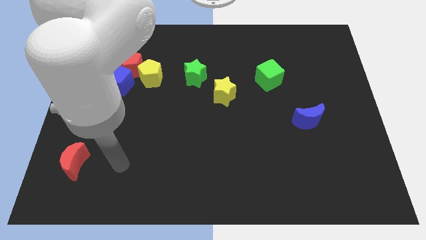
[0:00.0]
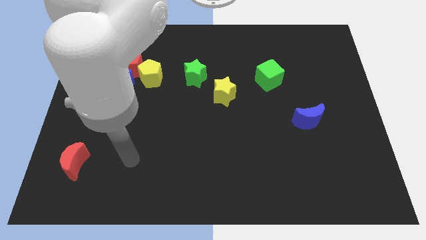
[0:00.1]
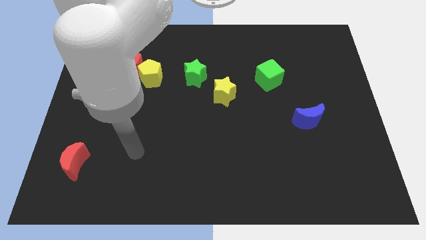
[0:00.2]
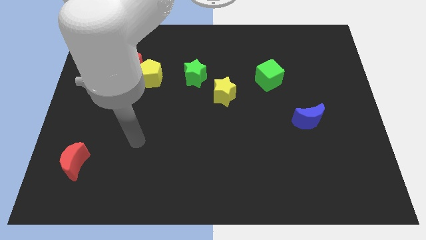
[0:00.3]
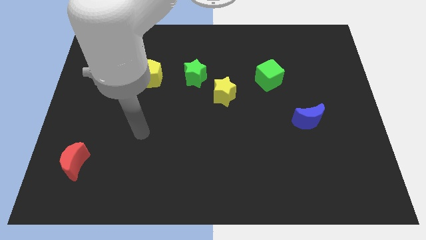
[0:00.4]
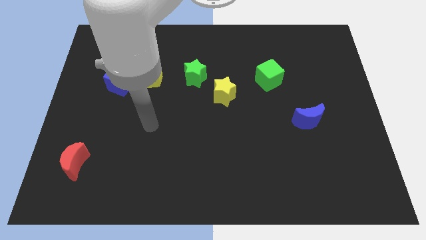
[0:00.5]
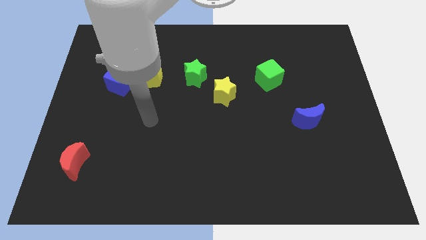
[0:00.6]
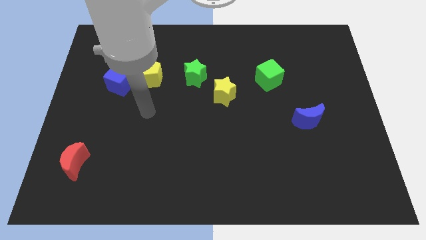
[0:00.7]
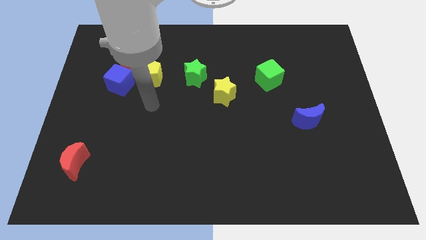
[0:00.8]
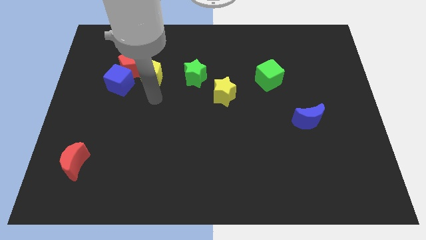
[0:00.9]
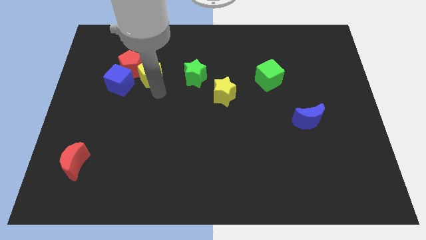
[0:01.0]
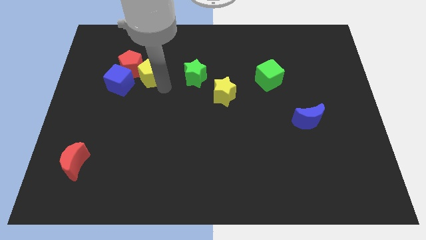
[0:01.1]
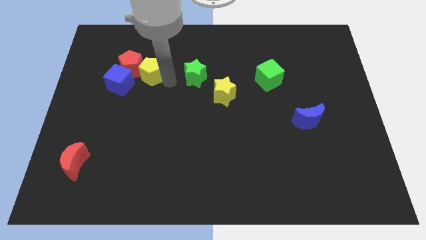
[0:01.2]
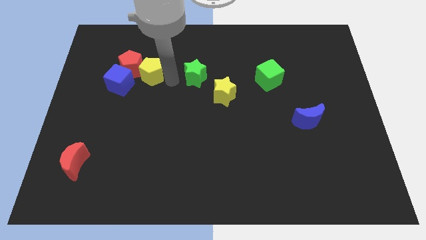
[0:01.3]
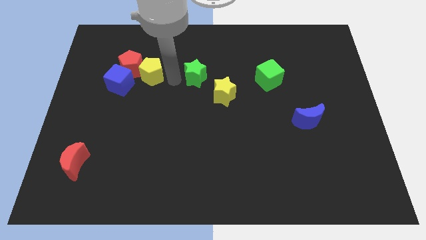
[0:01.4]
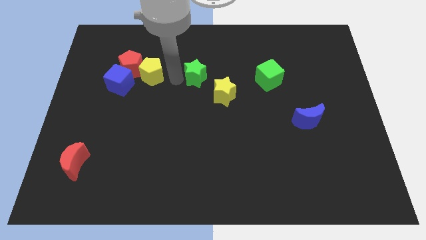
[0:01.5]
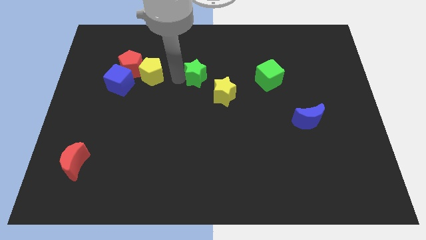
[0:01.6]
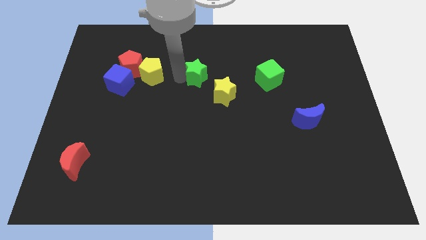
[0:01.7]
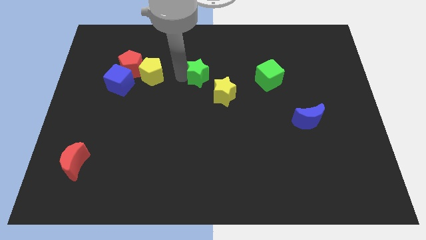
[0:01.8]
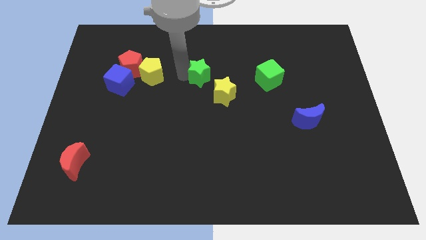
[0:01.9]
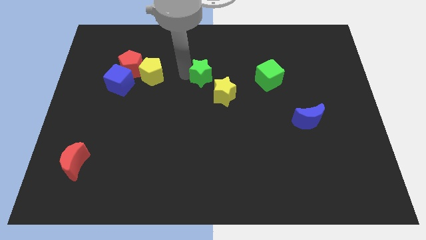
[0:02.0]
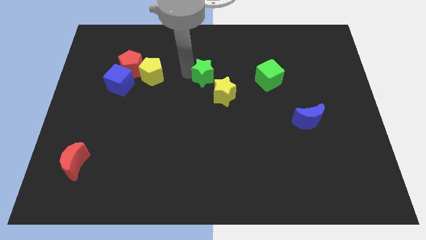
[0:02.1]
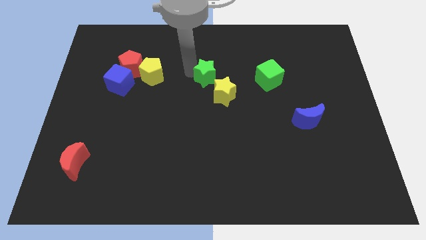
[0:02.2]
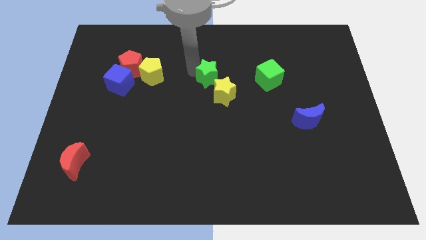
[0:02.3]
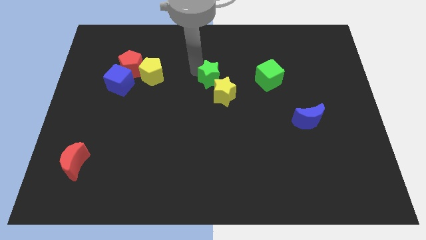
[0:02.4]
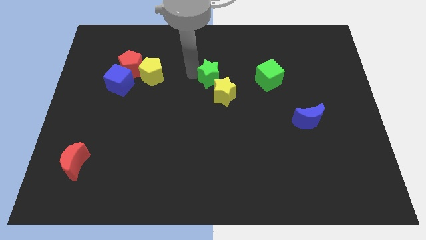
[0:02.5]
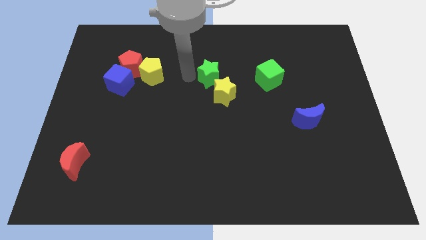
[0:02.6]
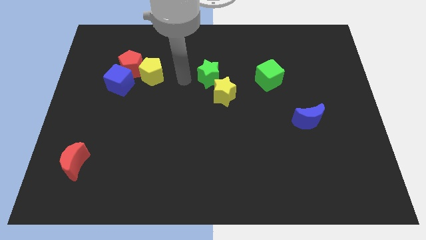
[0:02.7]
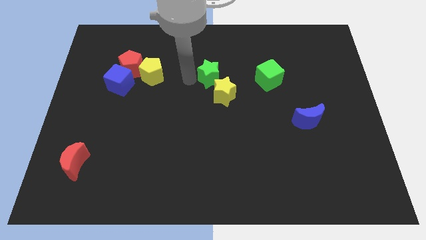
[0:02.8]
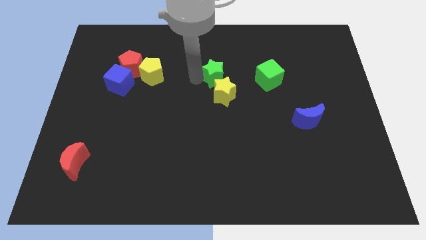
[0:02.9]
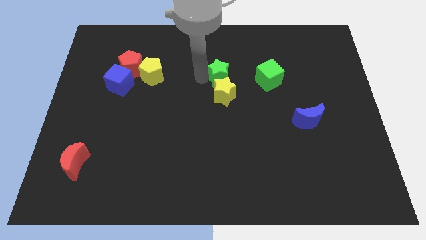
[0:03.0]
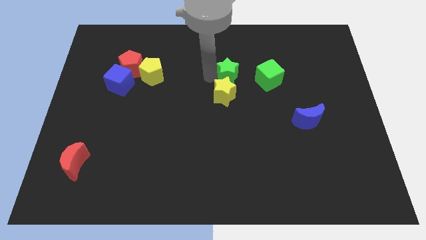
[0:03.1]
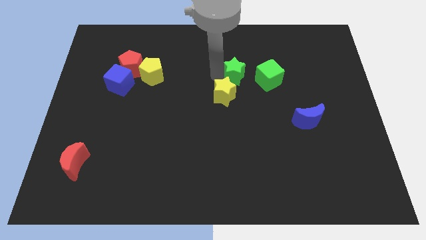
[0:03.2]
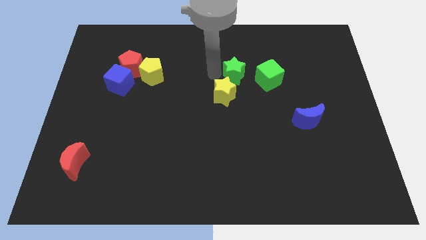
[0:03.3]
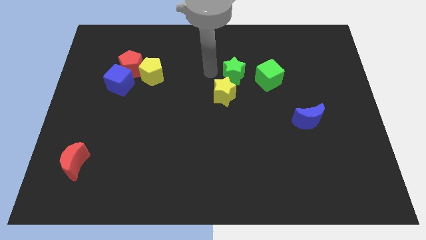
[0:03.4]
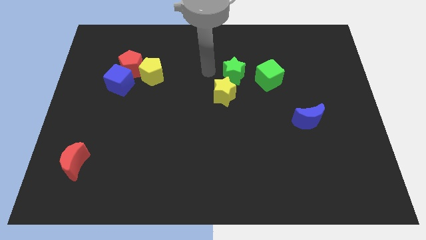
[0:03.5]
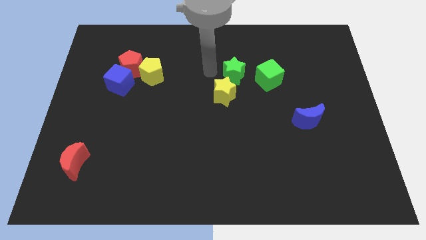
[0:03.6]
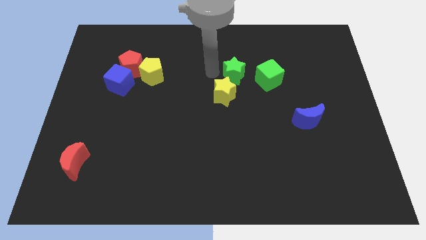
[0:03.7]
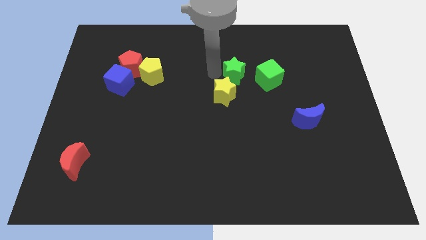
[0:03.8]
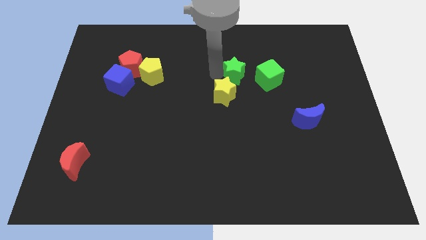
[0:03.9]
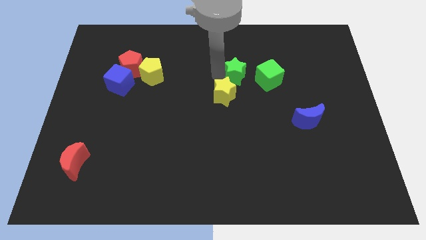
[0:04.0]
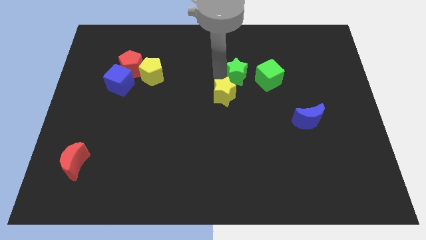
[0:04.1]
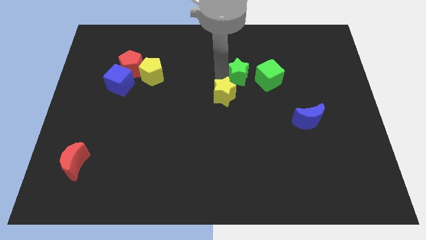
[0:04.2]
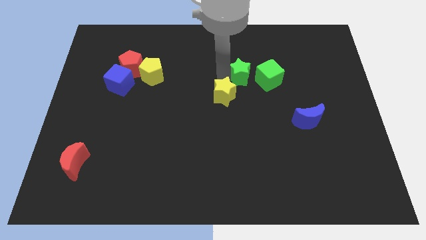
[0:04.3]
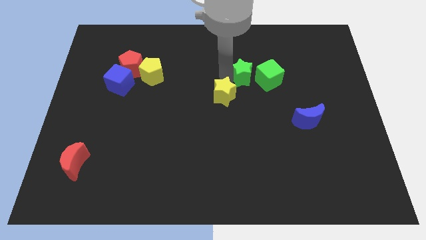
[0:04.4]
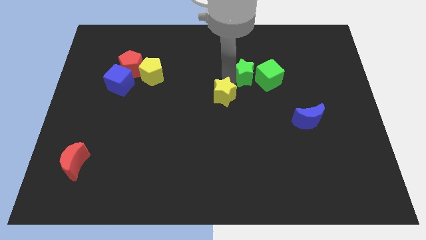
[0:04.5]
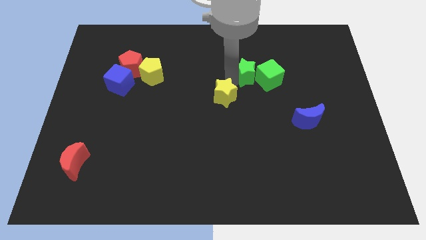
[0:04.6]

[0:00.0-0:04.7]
put the green star close to the green cube

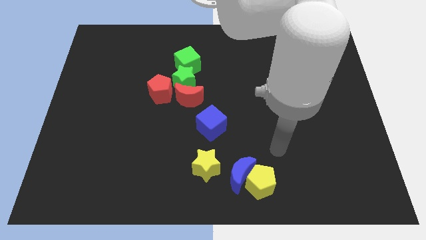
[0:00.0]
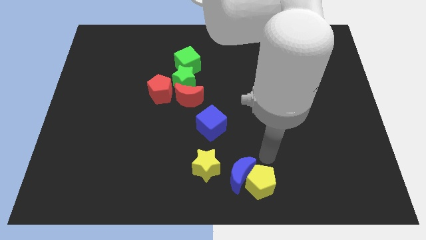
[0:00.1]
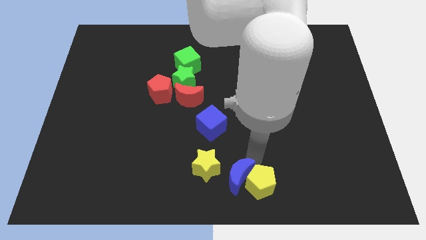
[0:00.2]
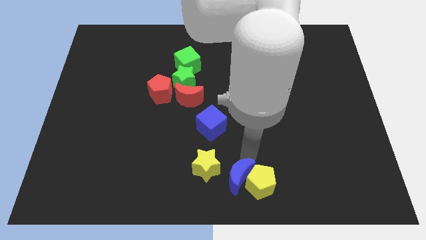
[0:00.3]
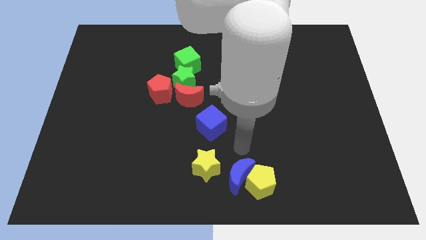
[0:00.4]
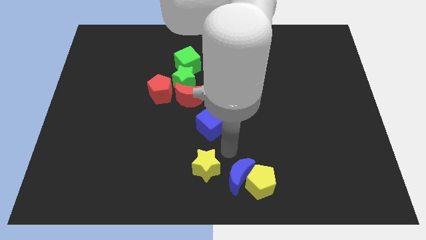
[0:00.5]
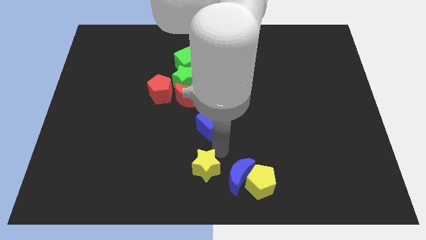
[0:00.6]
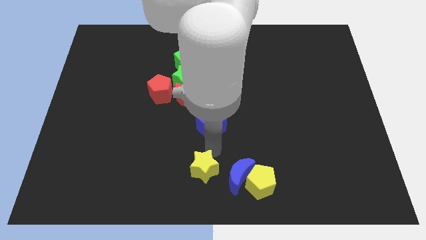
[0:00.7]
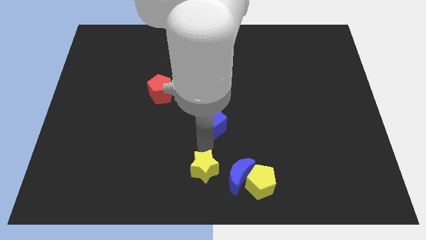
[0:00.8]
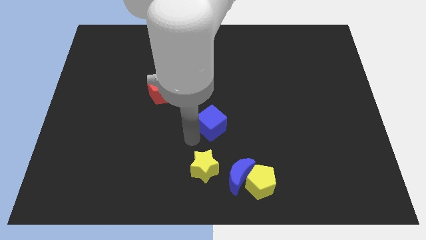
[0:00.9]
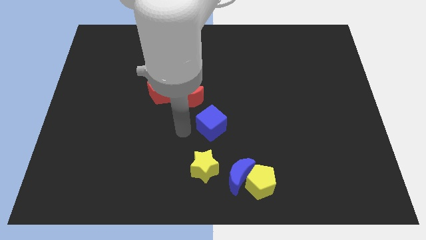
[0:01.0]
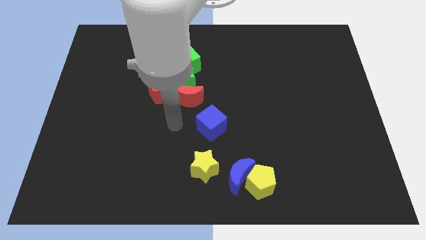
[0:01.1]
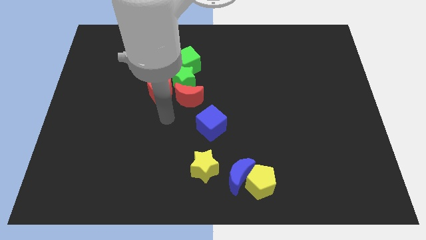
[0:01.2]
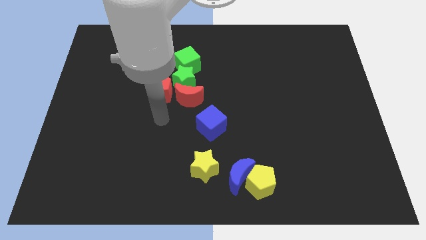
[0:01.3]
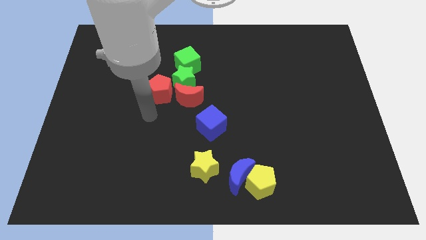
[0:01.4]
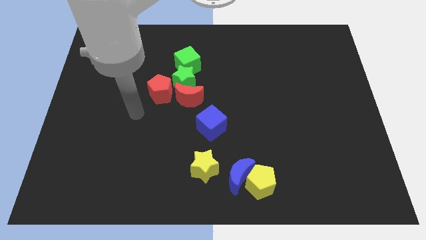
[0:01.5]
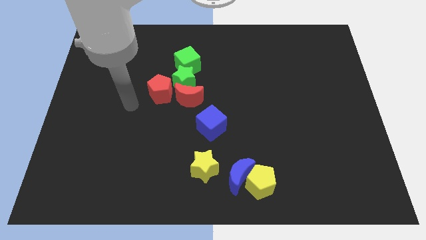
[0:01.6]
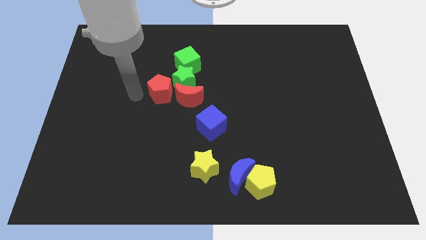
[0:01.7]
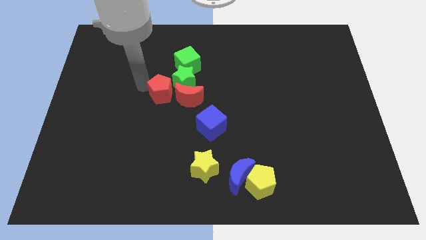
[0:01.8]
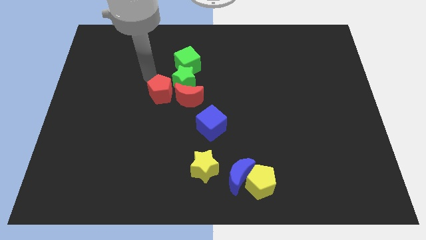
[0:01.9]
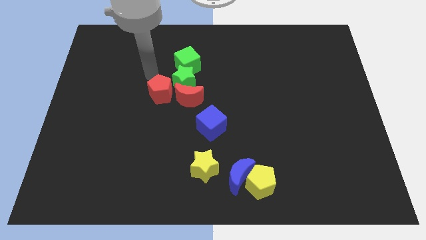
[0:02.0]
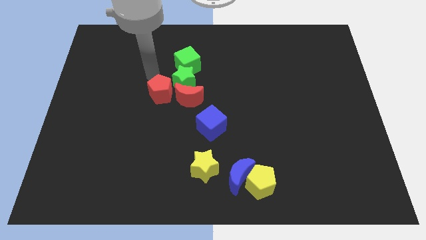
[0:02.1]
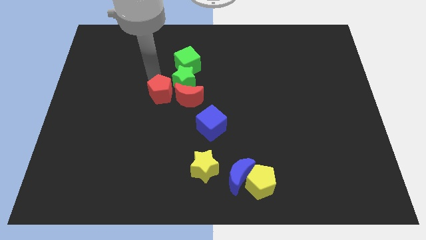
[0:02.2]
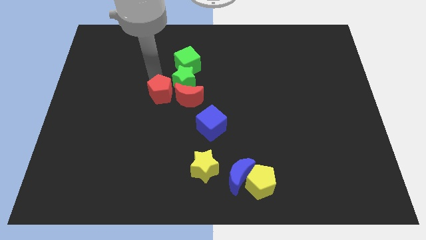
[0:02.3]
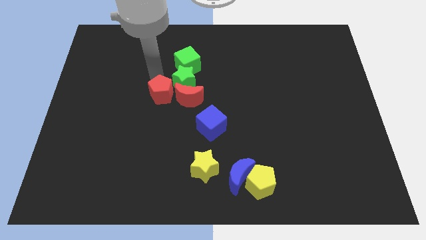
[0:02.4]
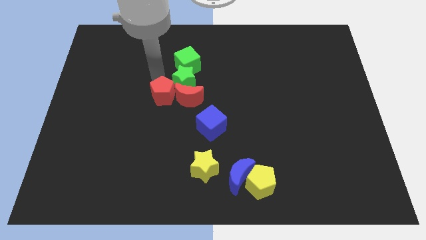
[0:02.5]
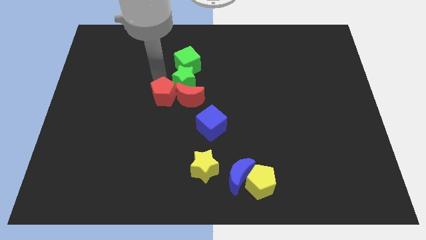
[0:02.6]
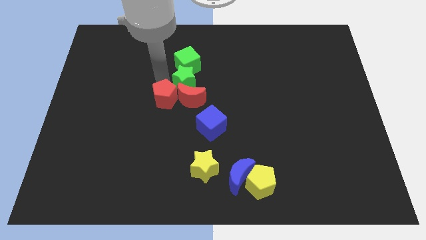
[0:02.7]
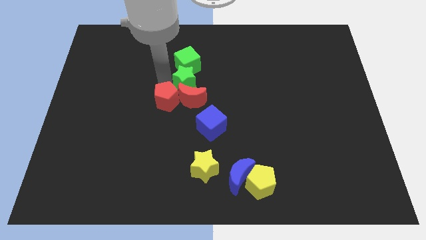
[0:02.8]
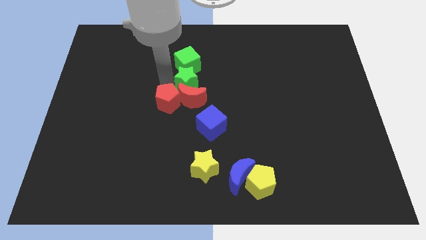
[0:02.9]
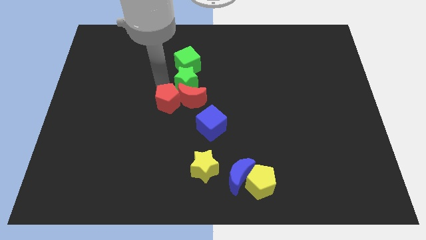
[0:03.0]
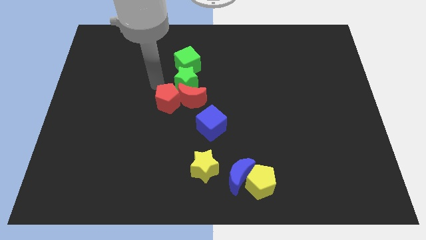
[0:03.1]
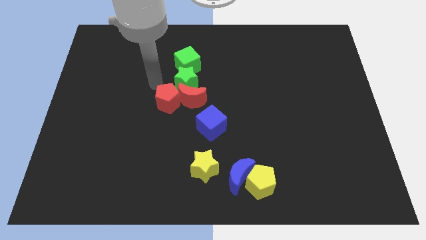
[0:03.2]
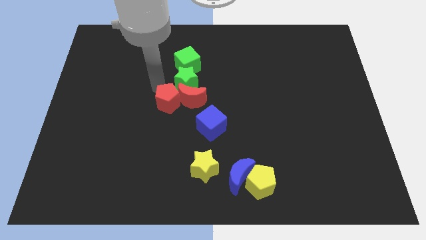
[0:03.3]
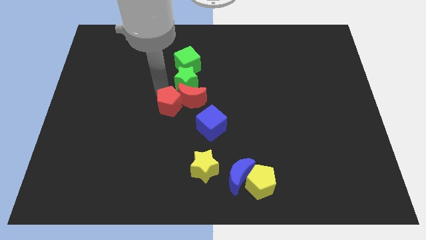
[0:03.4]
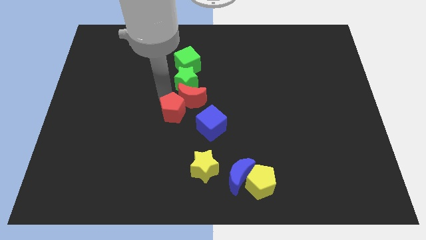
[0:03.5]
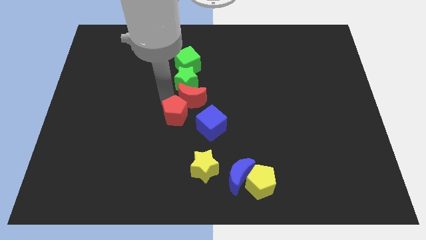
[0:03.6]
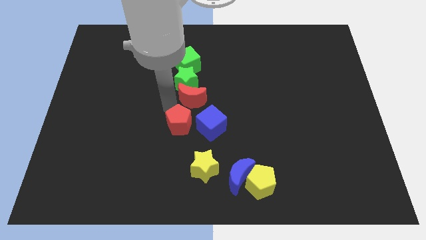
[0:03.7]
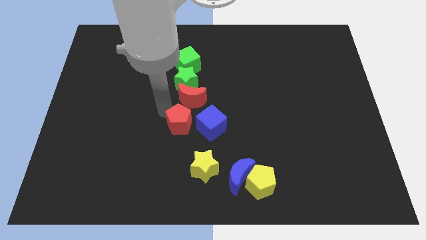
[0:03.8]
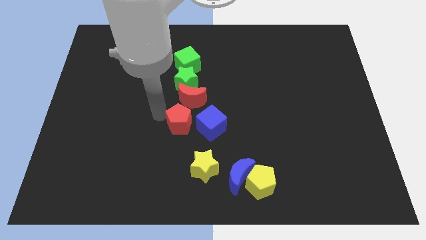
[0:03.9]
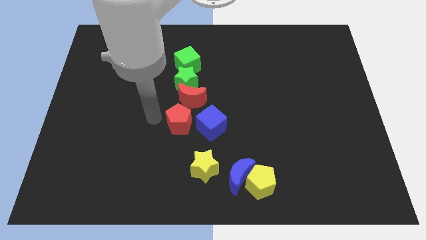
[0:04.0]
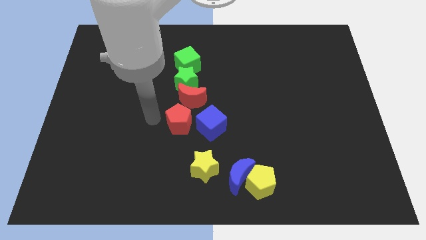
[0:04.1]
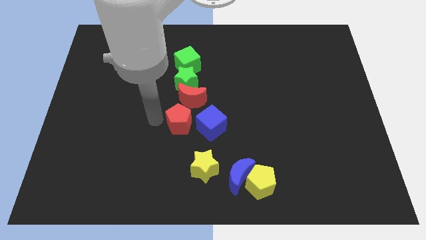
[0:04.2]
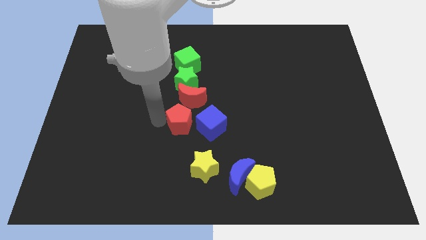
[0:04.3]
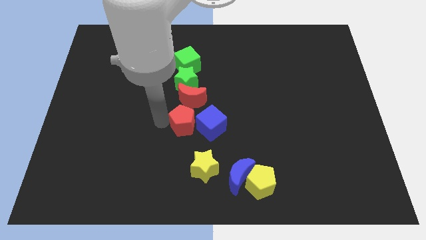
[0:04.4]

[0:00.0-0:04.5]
push the red pentagon close to the blue cube
